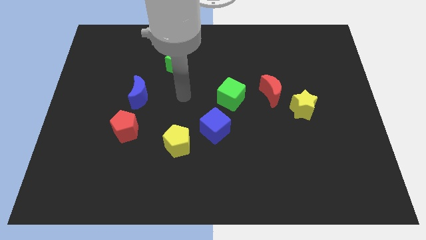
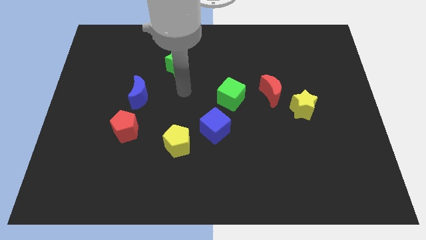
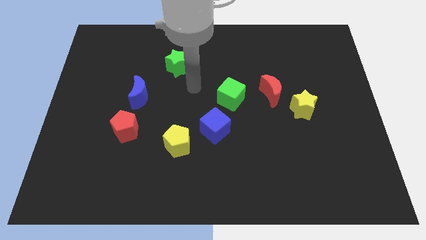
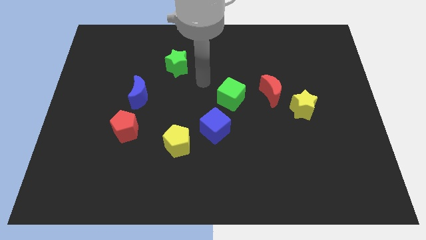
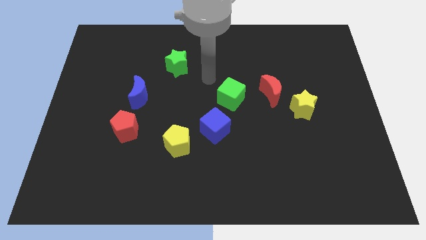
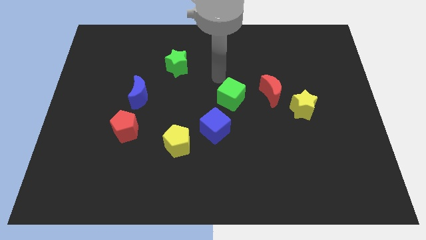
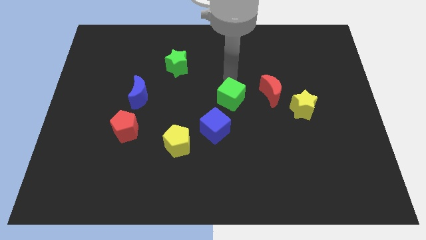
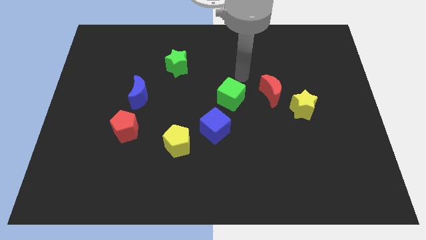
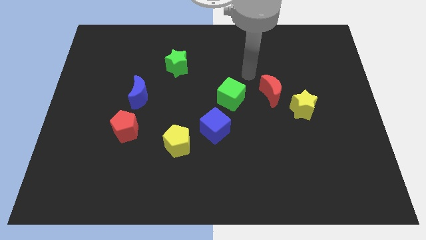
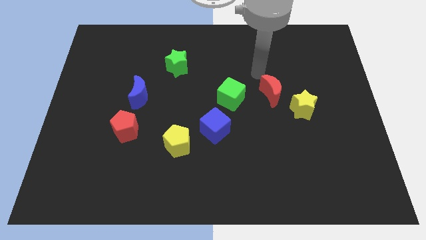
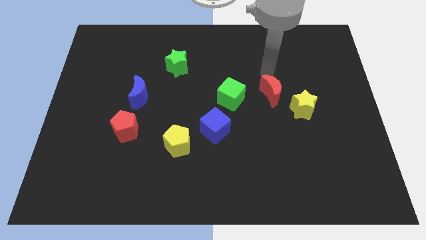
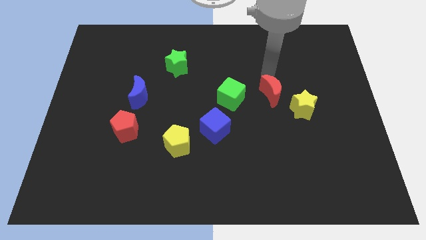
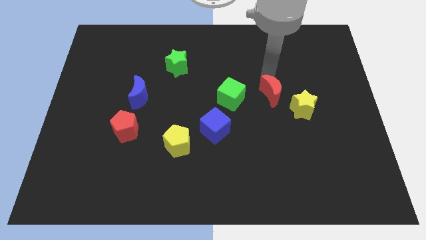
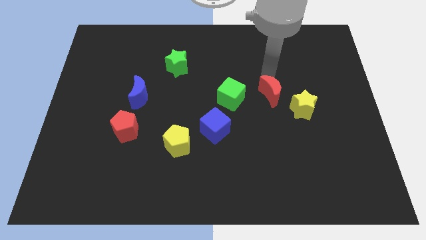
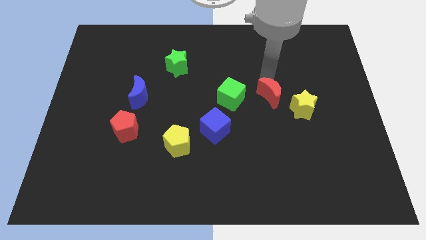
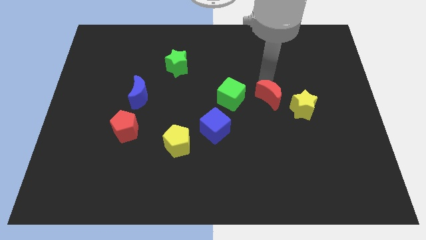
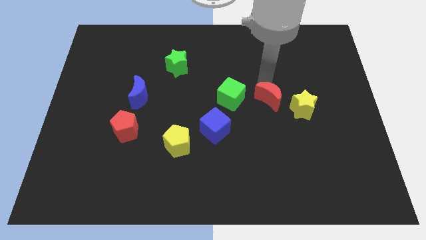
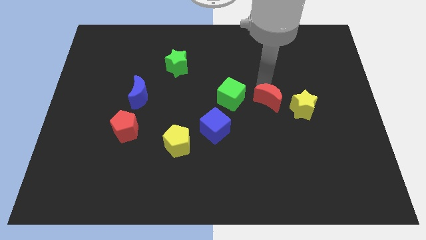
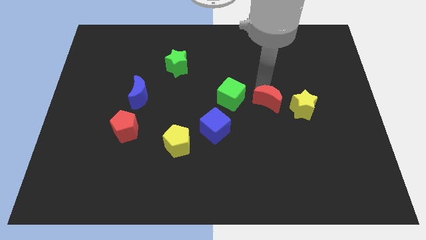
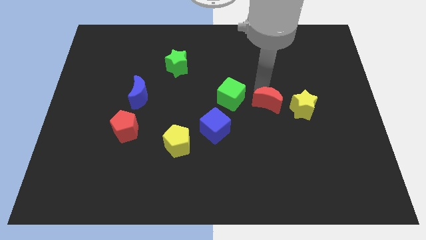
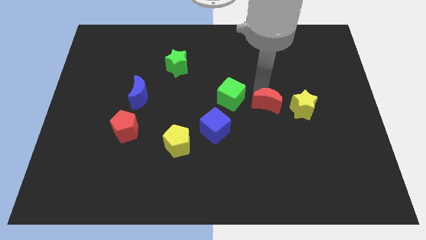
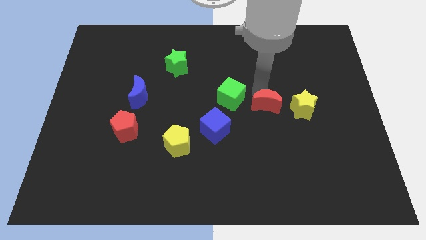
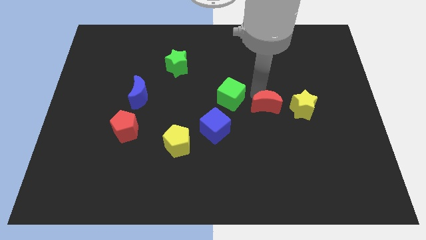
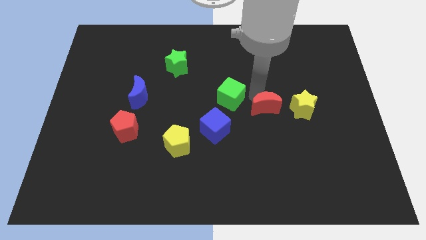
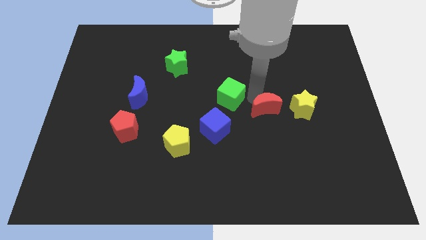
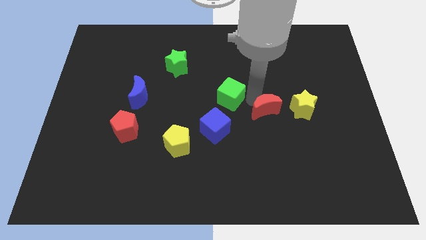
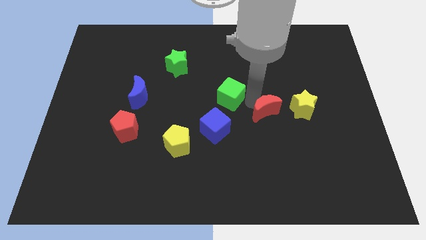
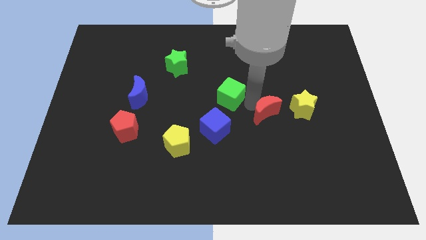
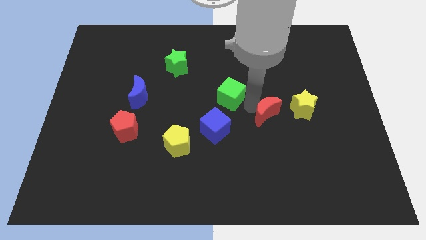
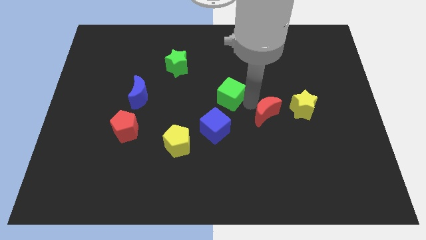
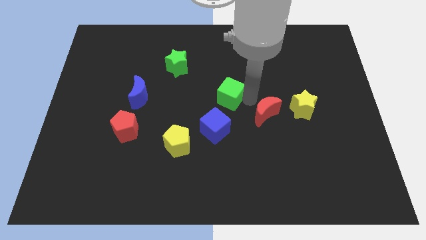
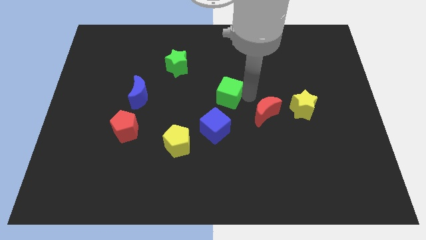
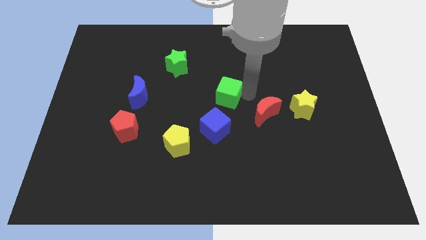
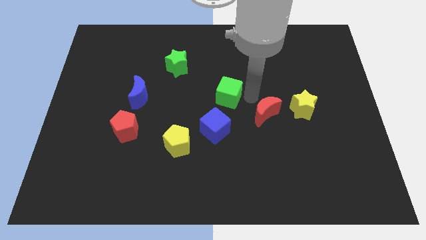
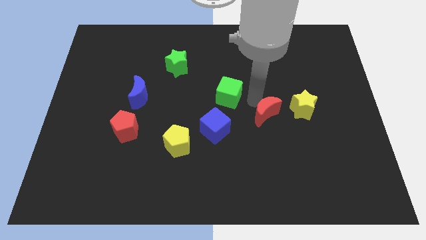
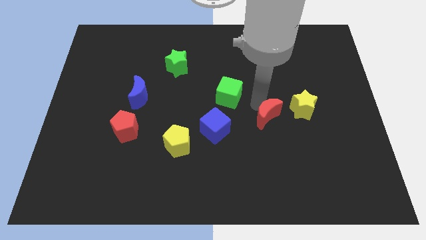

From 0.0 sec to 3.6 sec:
push the red moon downwards slightly

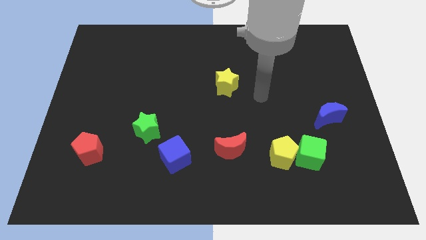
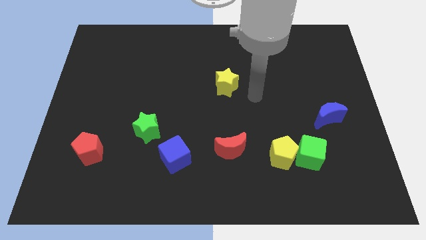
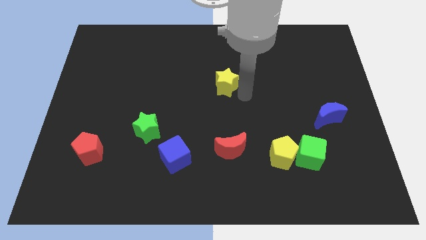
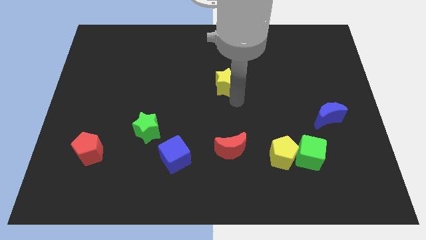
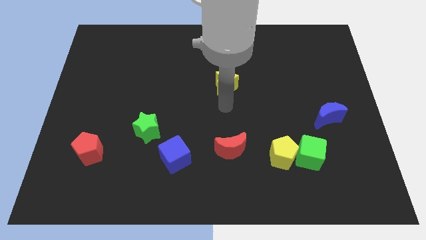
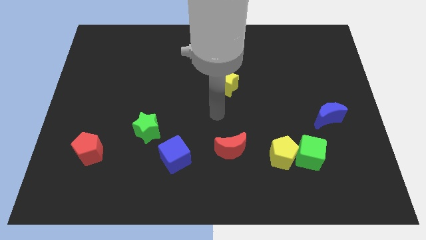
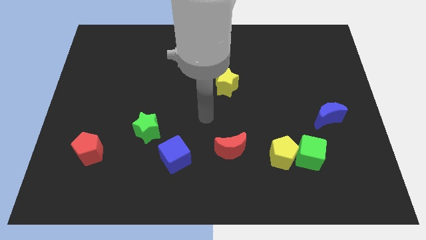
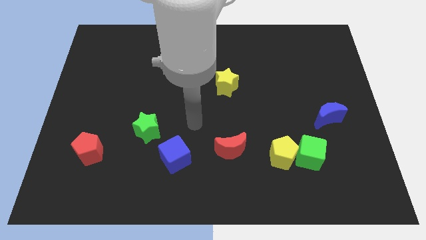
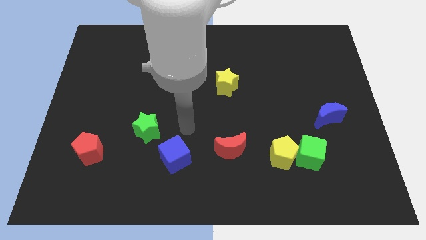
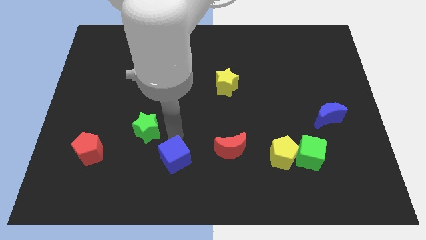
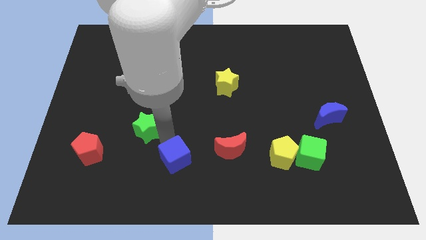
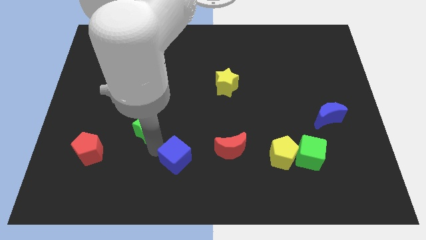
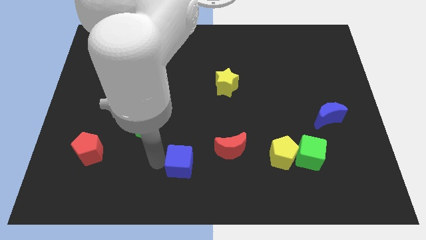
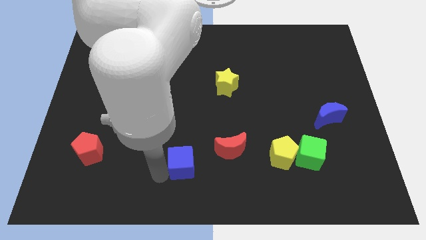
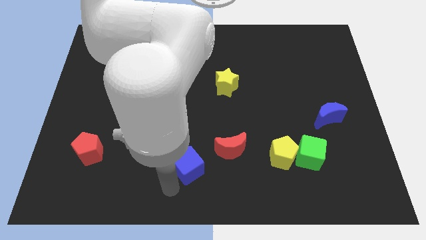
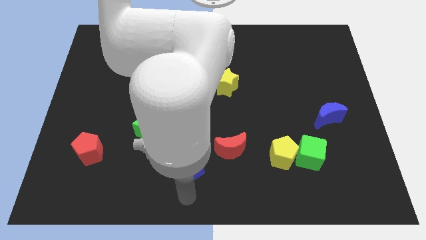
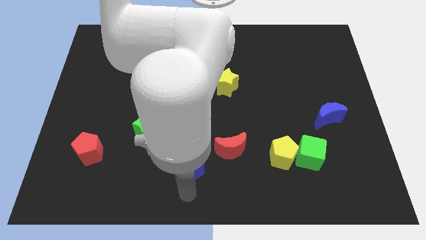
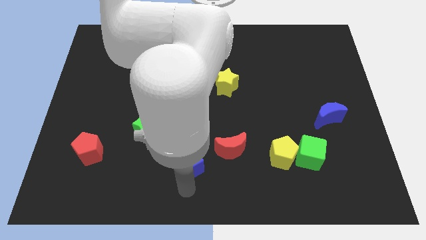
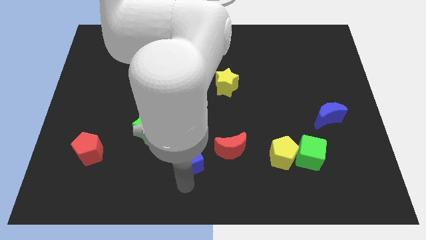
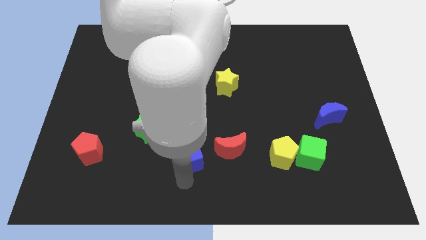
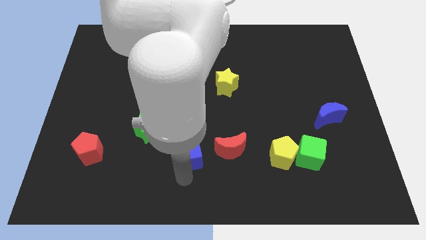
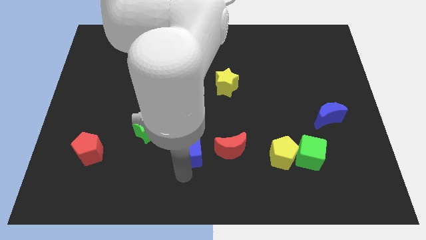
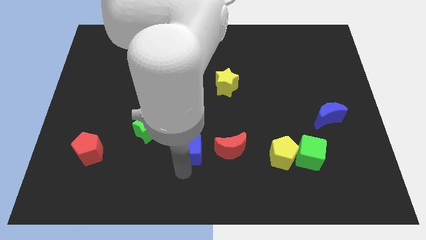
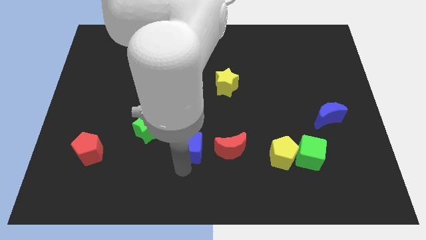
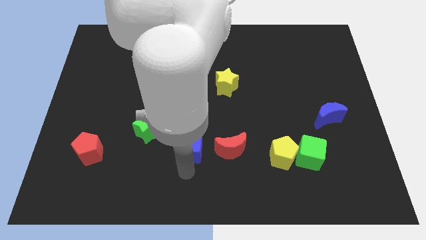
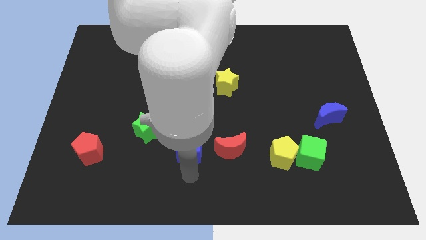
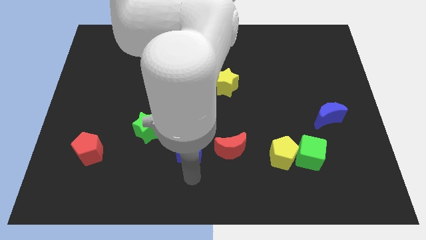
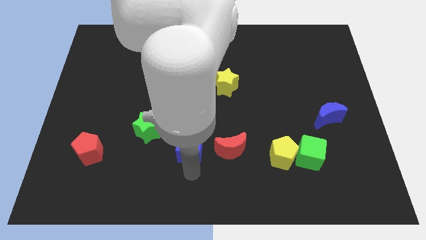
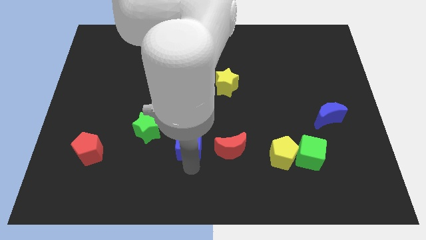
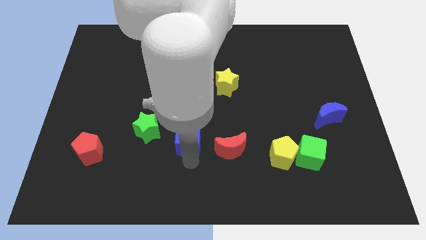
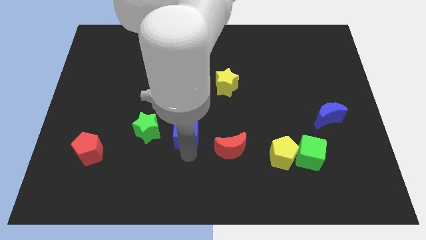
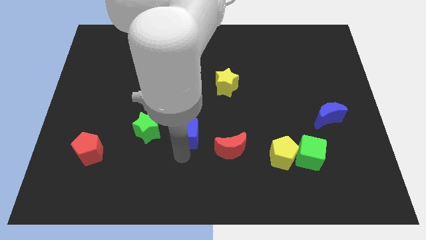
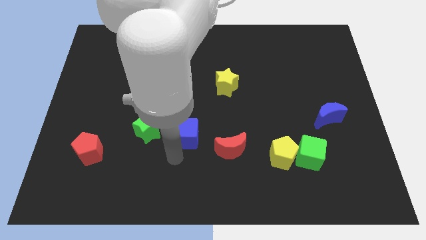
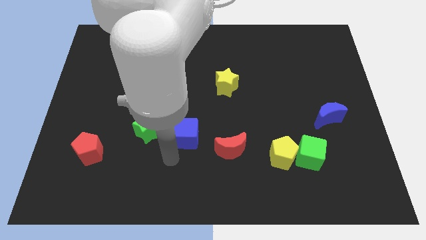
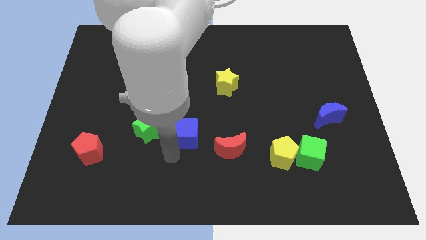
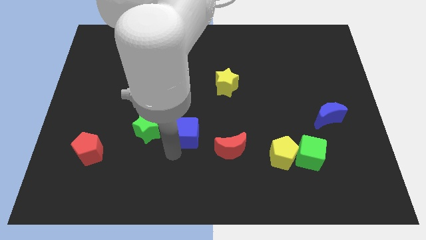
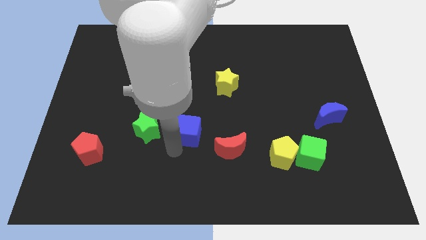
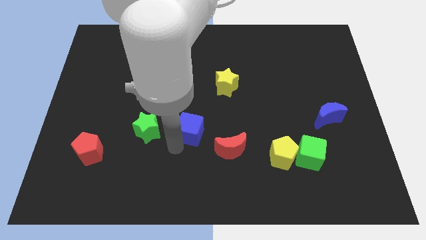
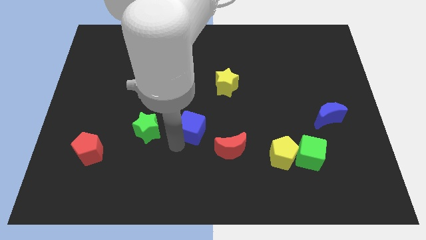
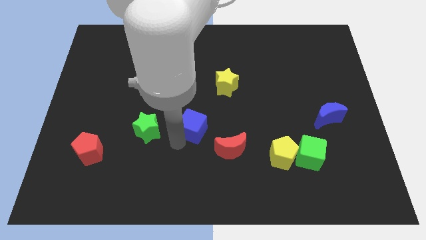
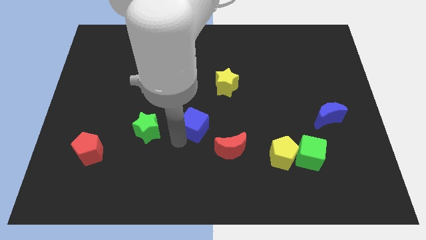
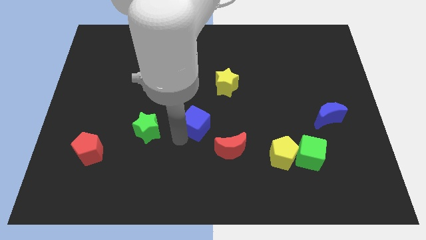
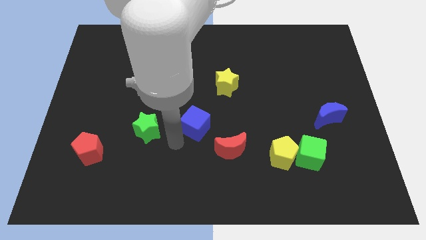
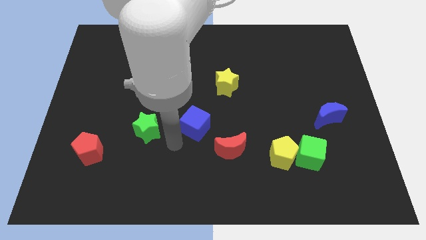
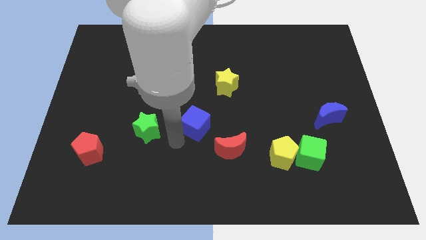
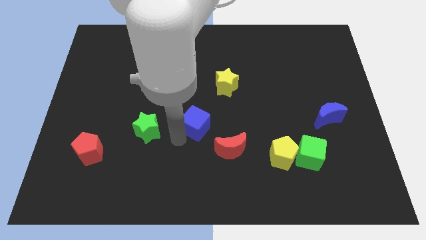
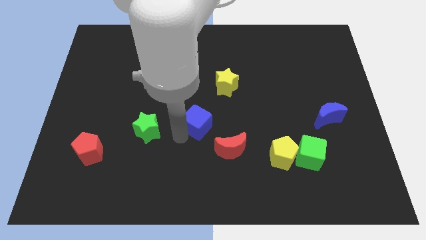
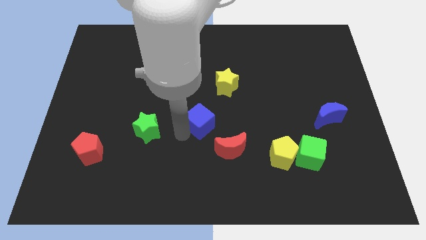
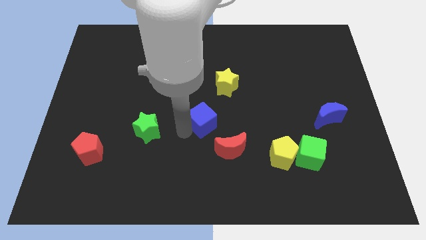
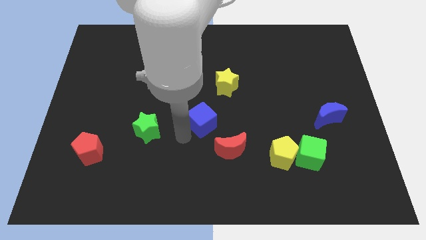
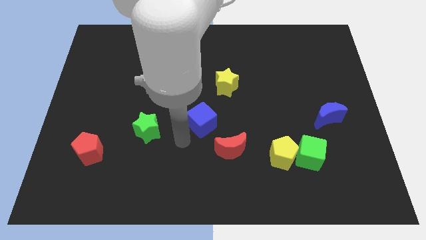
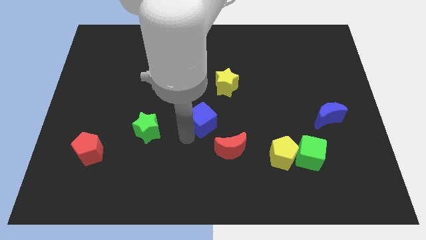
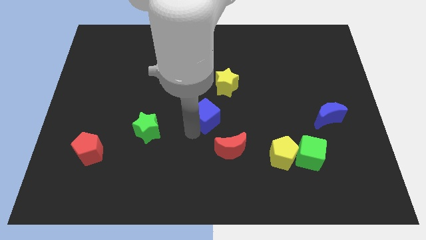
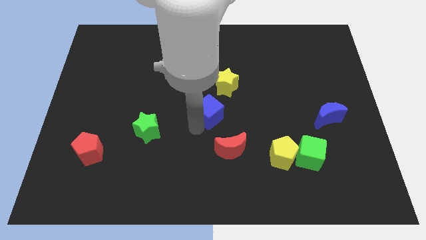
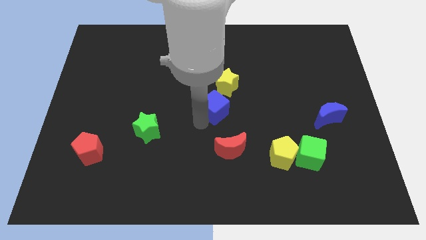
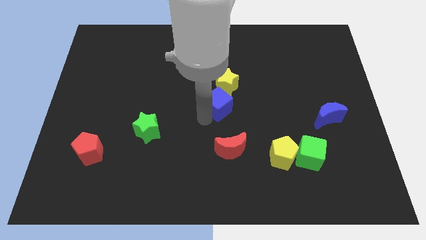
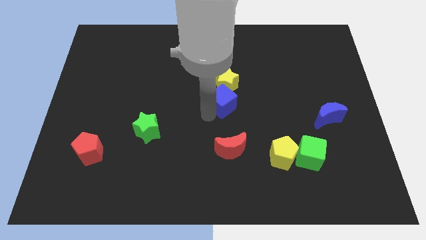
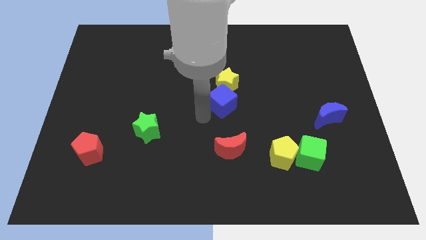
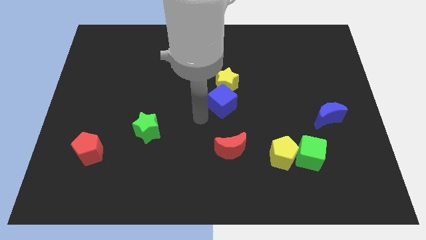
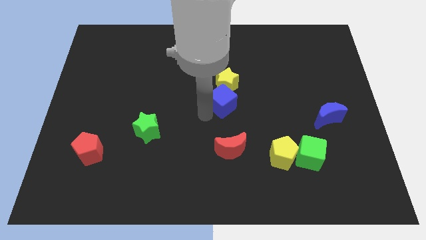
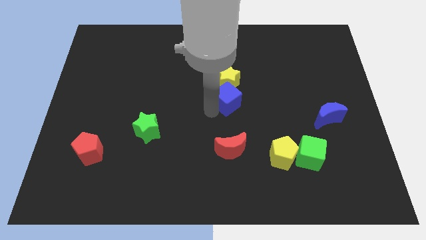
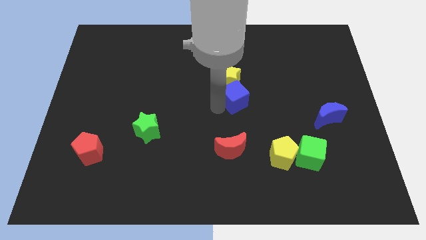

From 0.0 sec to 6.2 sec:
push the blue cube diagonally upwards and right
